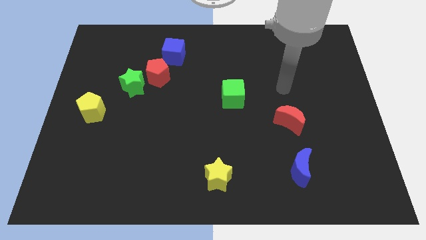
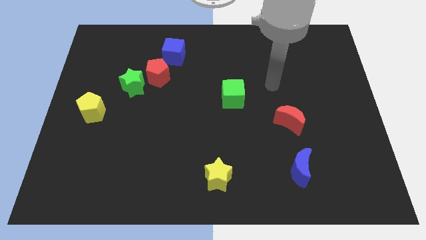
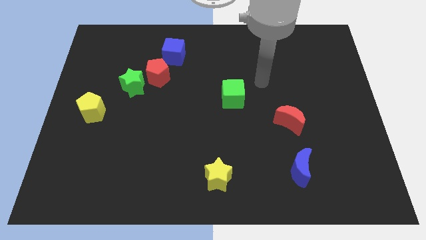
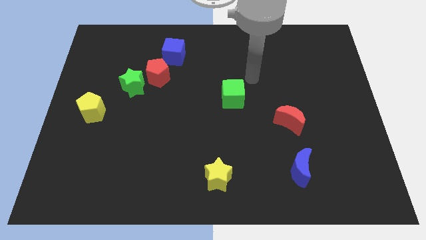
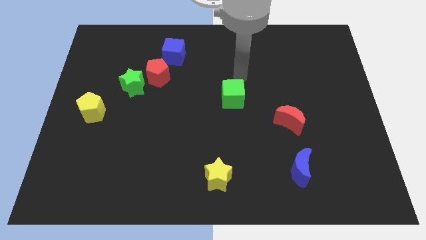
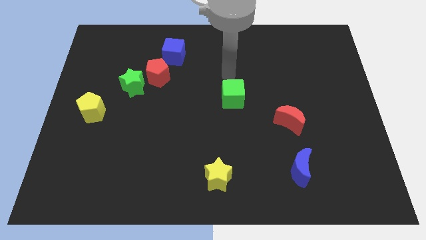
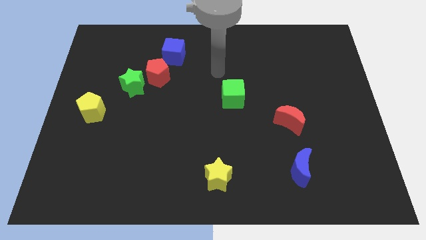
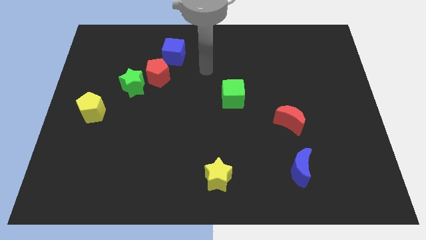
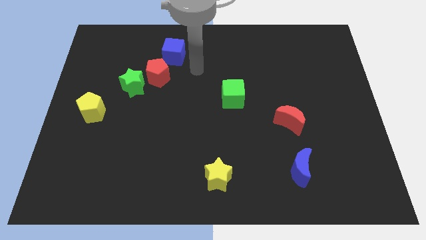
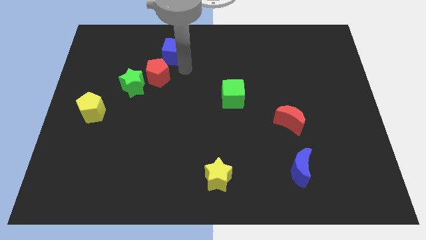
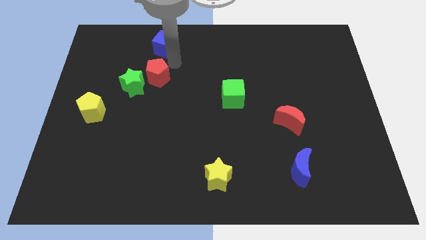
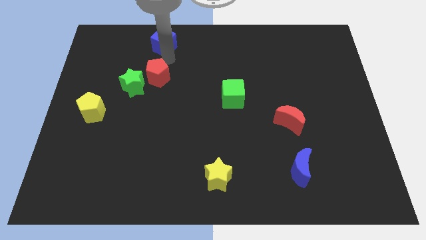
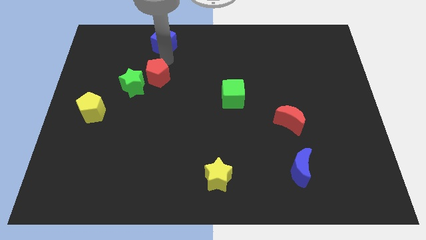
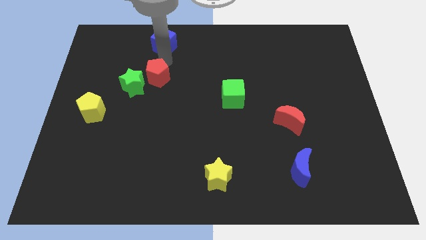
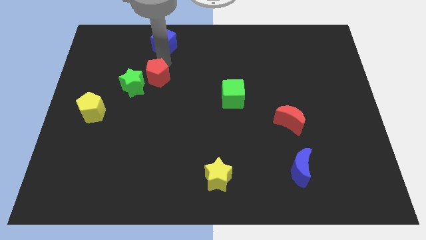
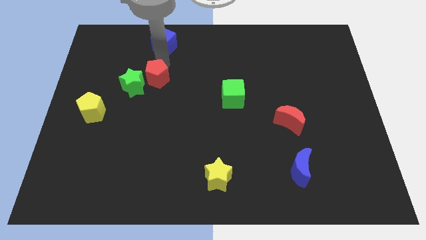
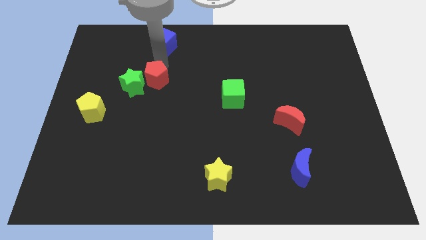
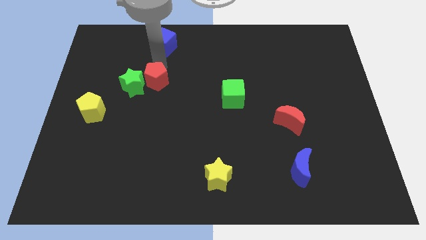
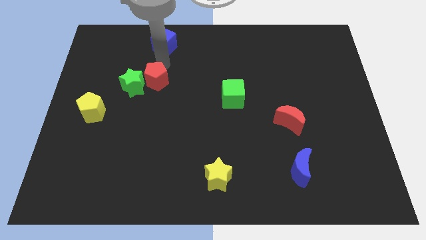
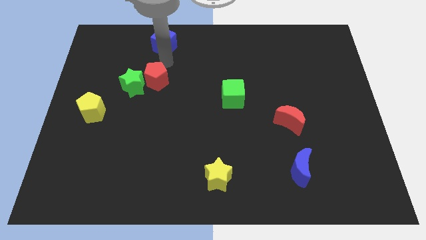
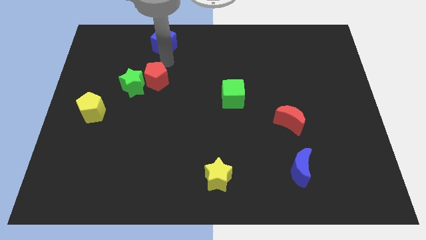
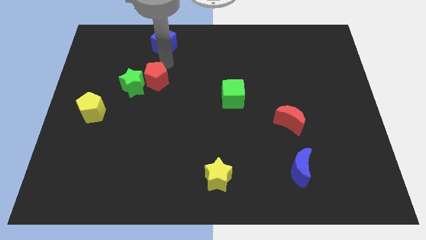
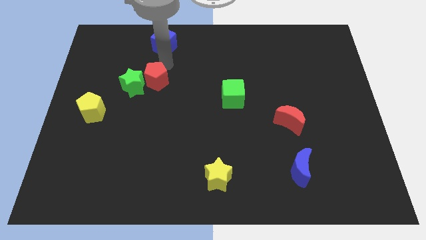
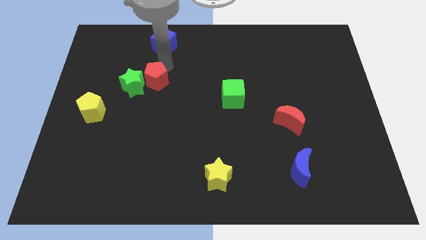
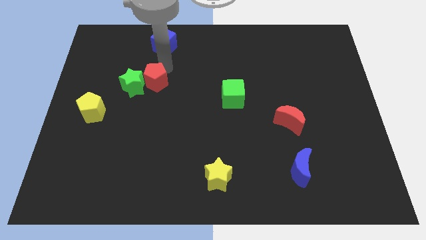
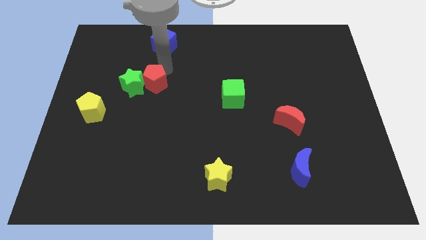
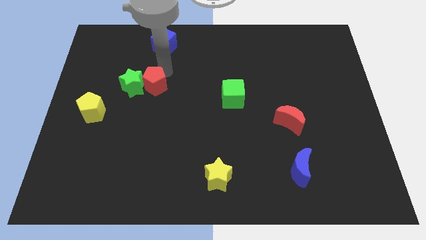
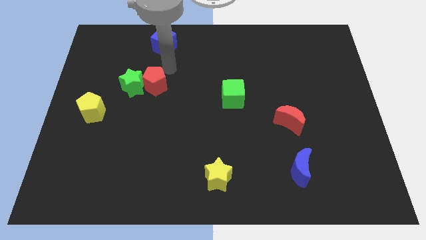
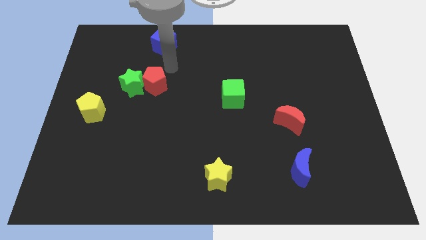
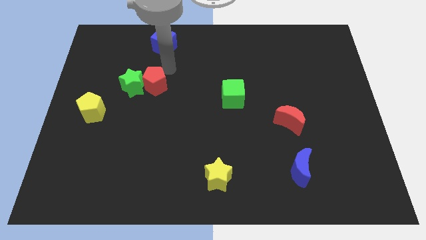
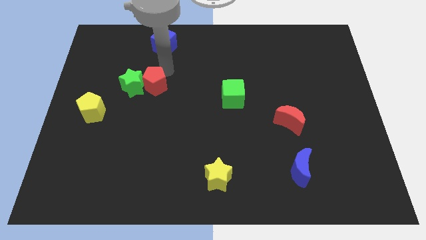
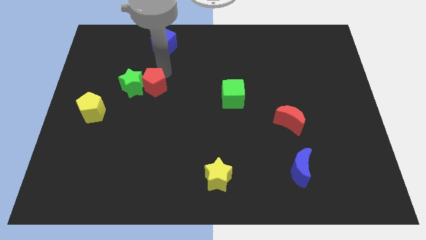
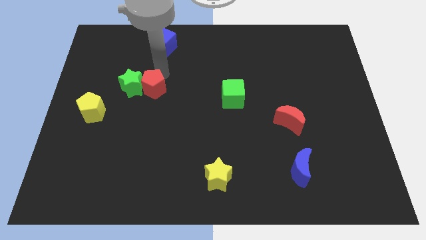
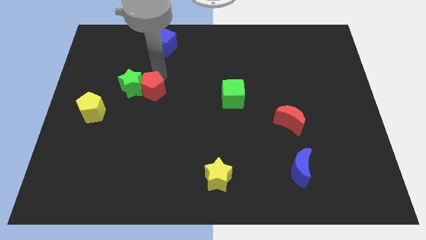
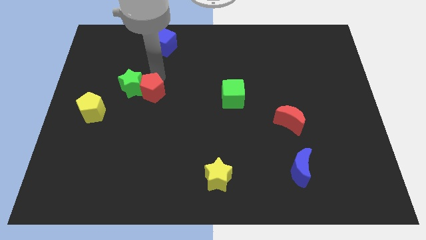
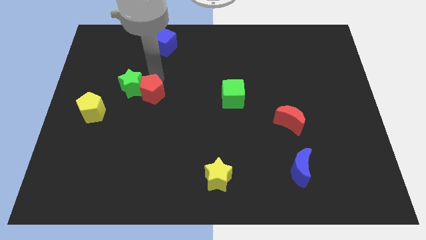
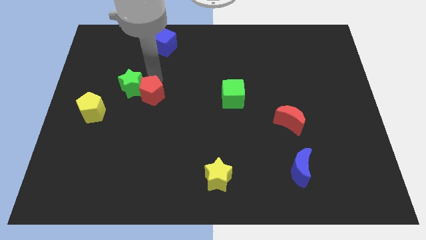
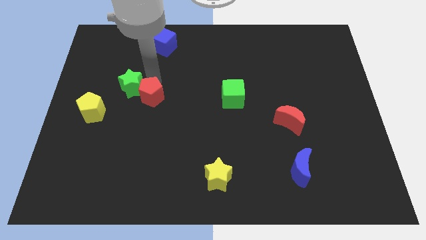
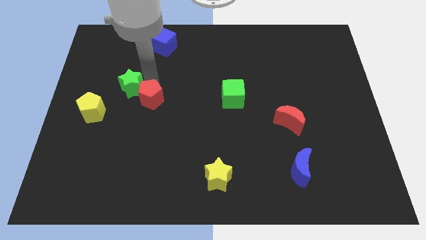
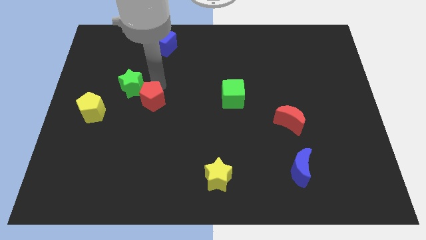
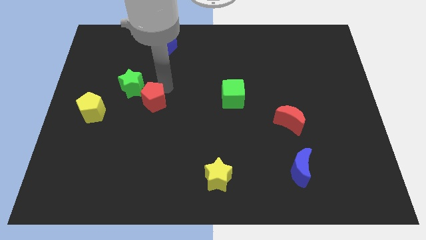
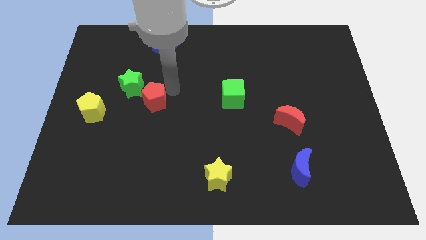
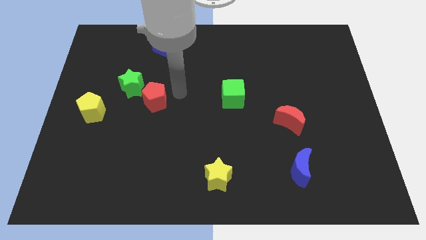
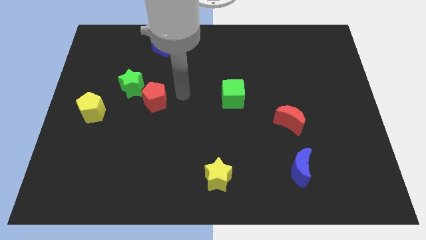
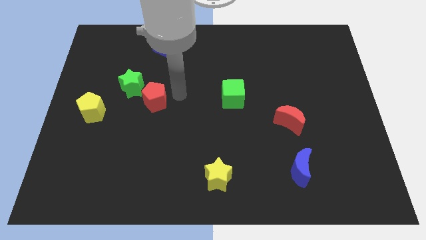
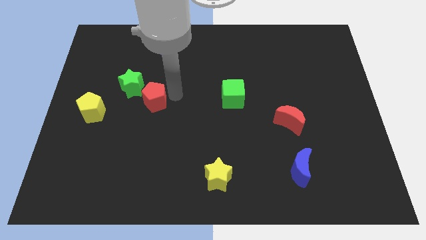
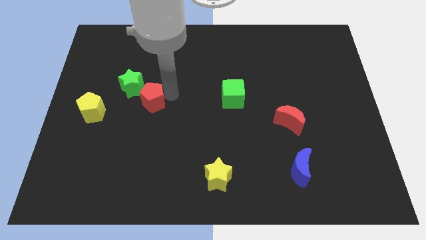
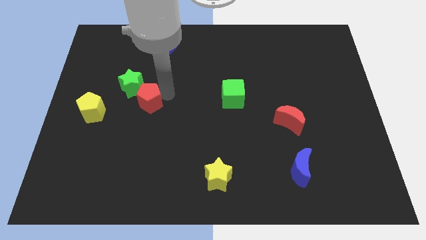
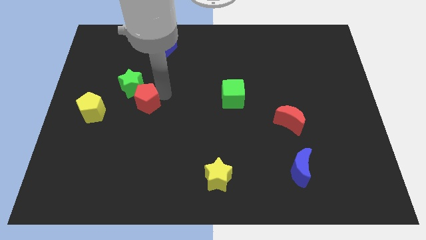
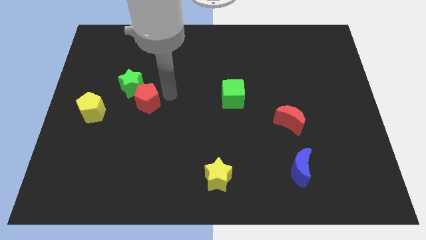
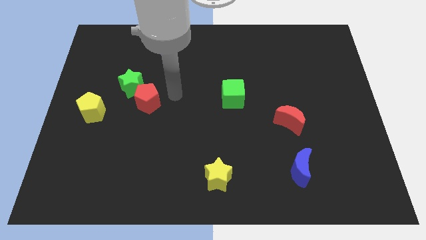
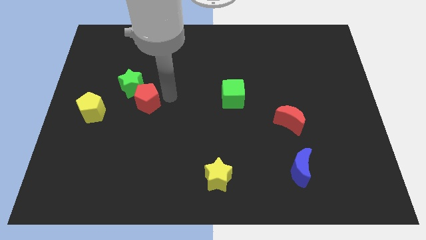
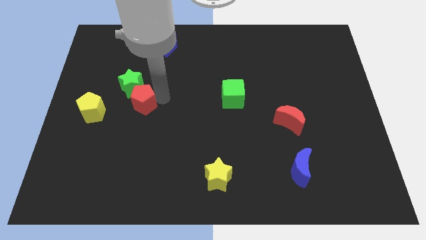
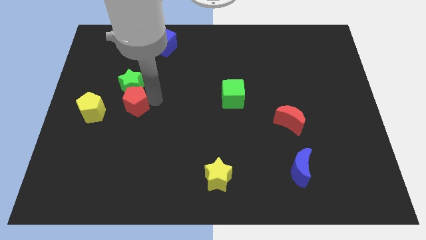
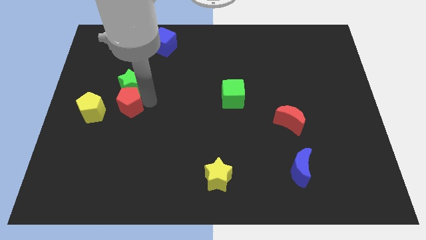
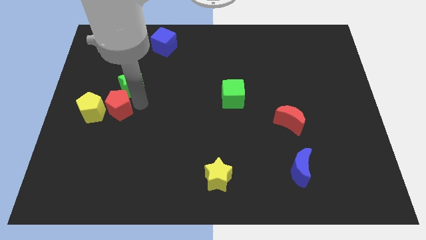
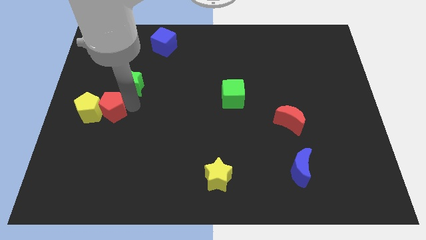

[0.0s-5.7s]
put the red pentagon towards the yellow pentagon

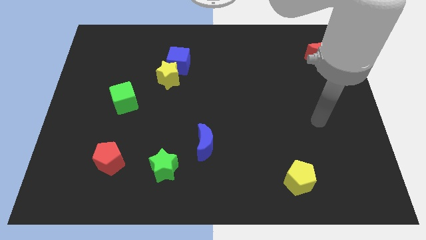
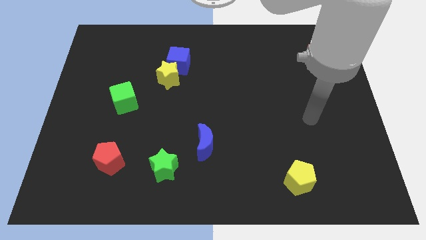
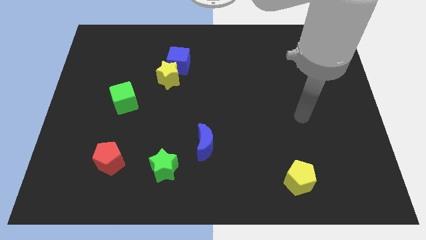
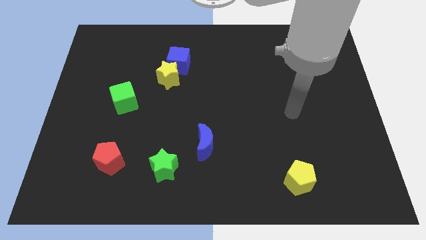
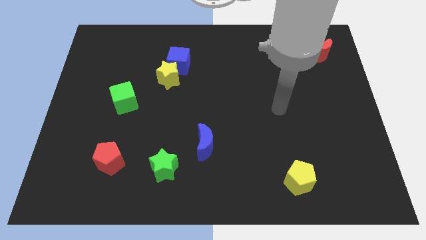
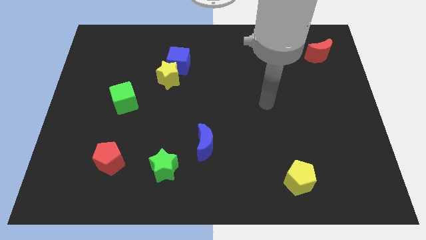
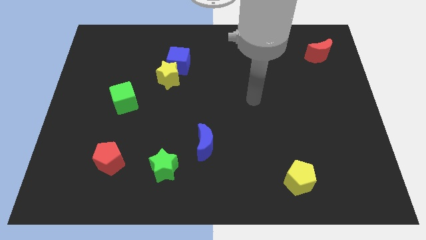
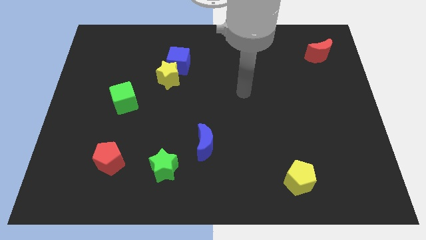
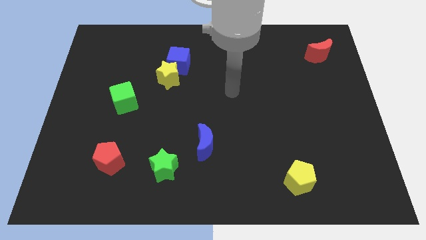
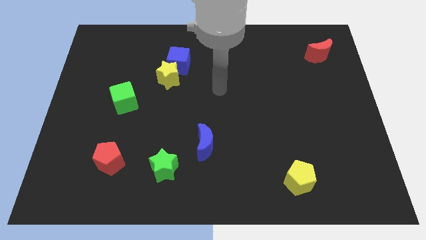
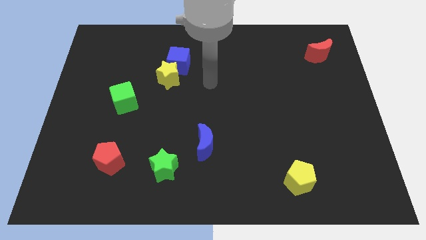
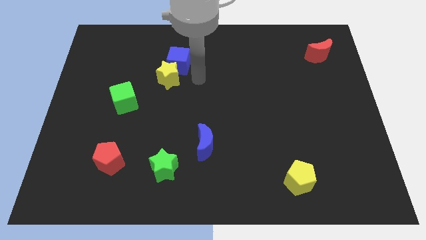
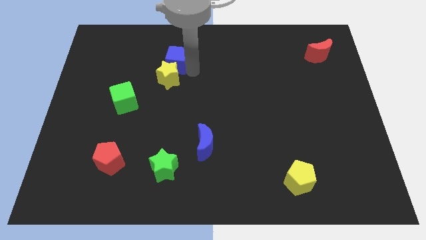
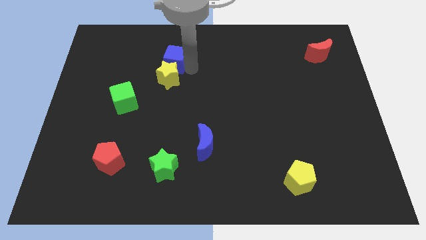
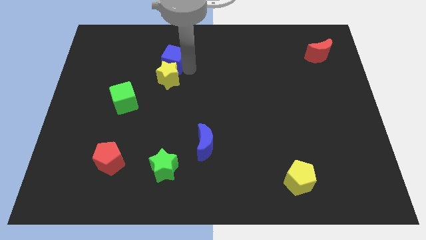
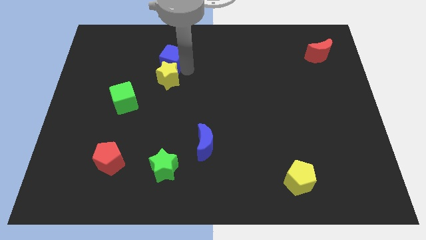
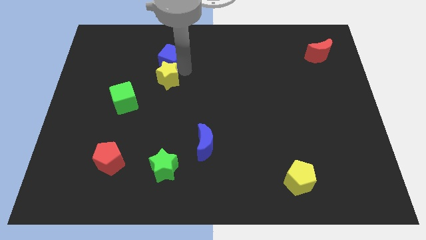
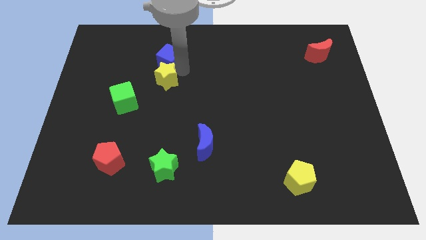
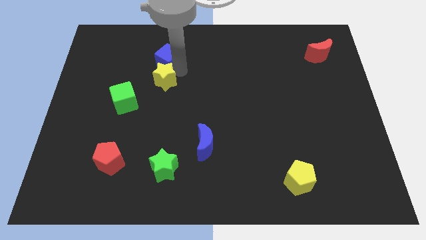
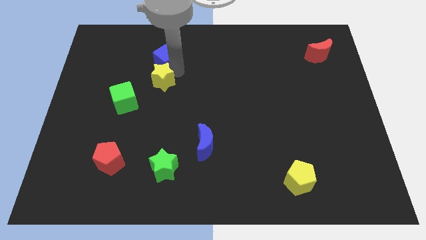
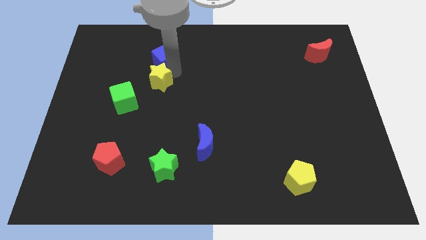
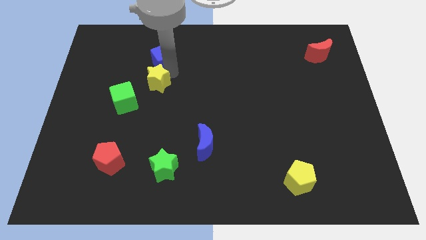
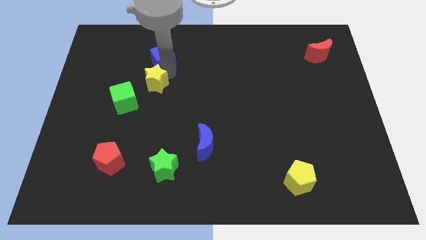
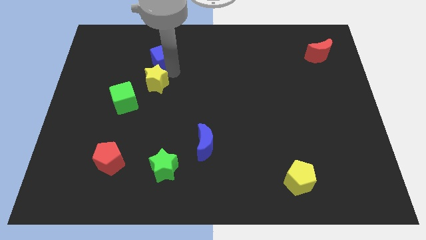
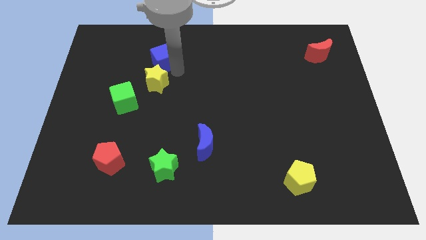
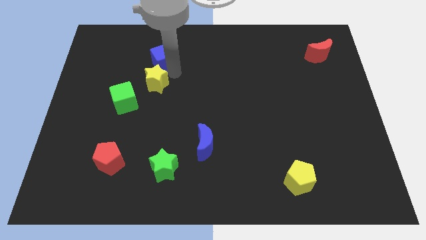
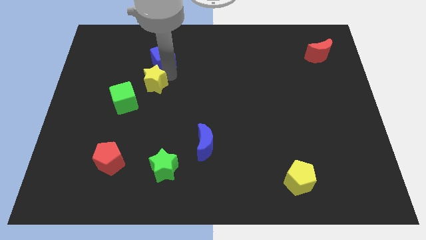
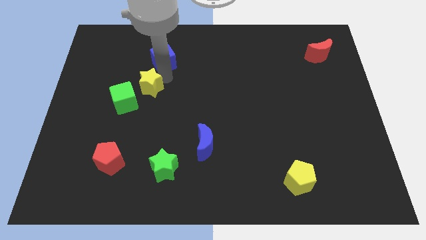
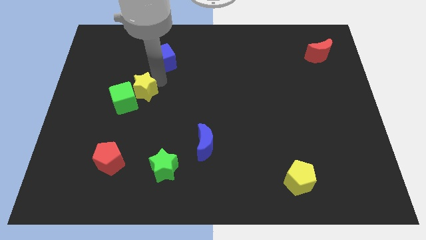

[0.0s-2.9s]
put the yellow star towards the green cube
